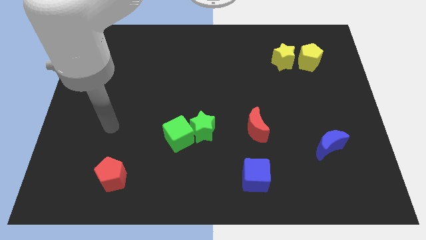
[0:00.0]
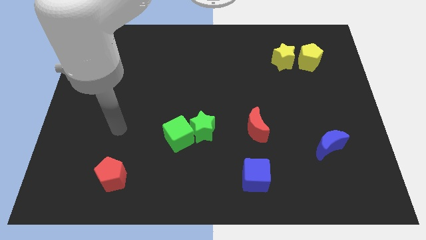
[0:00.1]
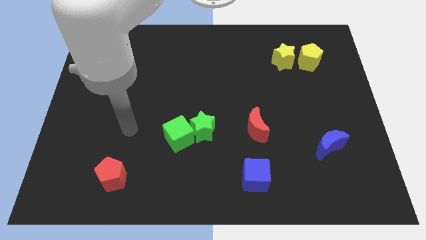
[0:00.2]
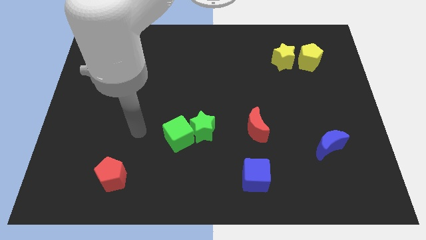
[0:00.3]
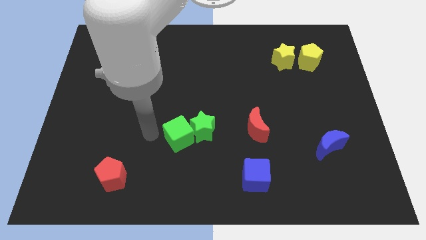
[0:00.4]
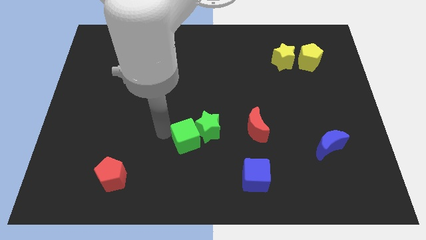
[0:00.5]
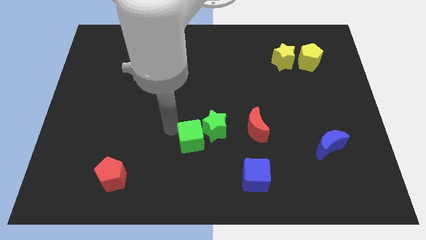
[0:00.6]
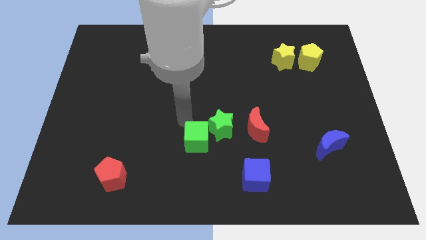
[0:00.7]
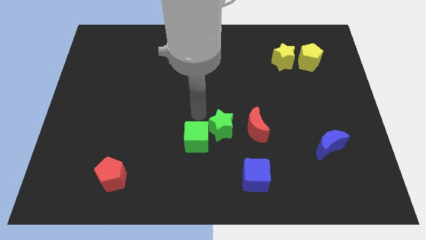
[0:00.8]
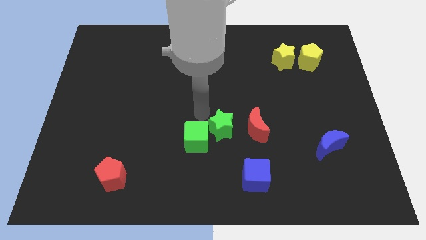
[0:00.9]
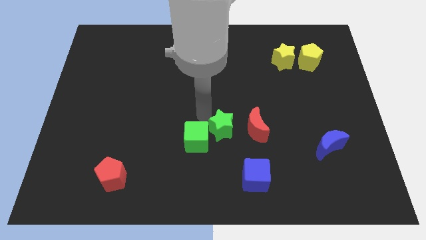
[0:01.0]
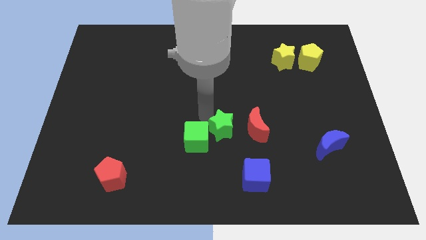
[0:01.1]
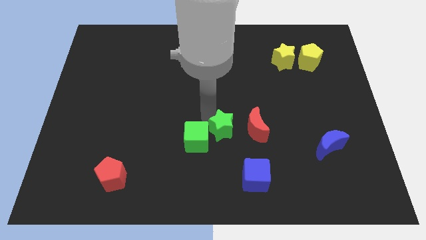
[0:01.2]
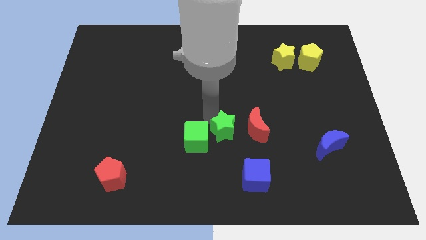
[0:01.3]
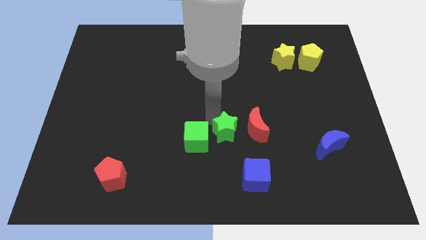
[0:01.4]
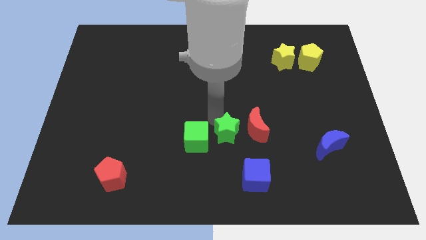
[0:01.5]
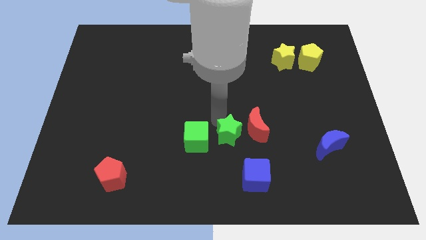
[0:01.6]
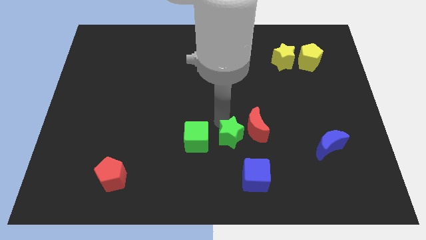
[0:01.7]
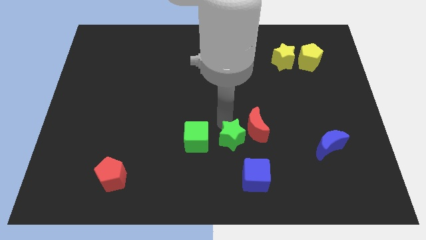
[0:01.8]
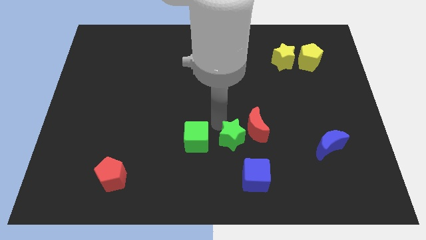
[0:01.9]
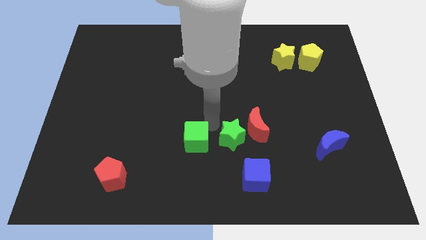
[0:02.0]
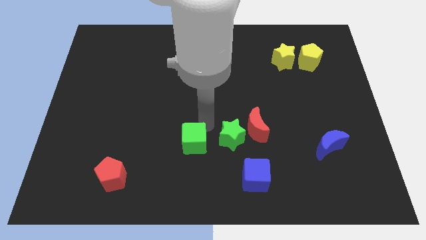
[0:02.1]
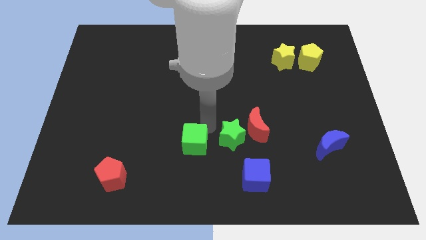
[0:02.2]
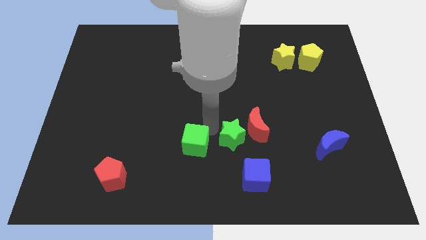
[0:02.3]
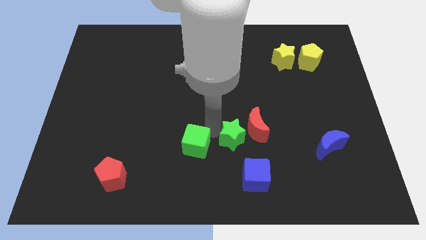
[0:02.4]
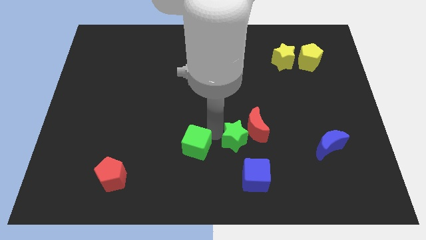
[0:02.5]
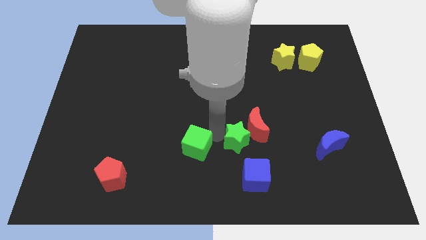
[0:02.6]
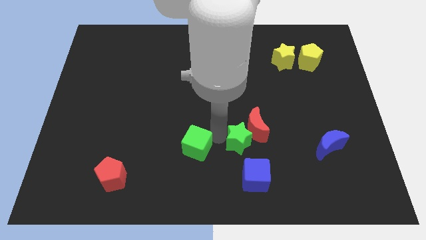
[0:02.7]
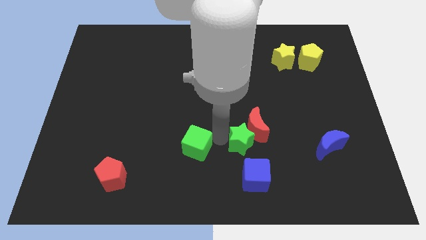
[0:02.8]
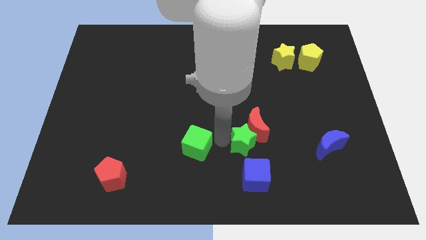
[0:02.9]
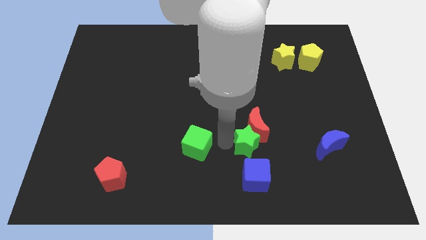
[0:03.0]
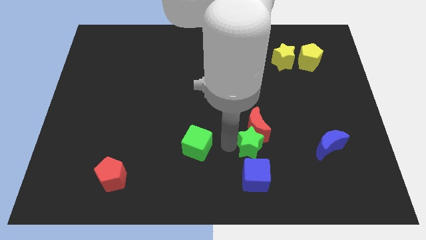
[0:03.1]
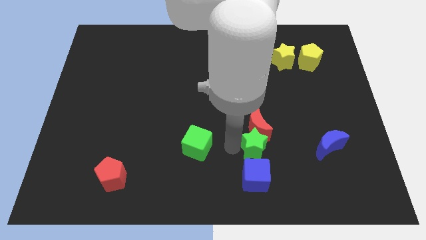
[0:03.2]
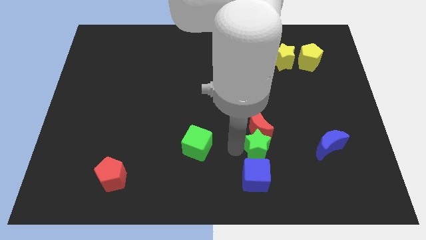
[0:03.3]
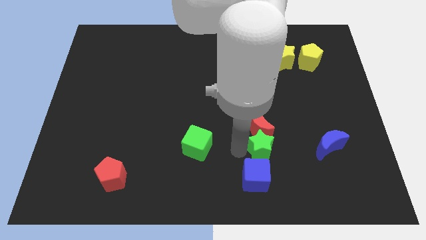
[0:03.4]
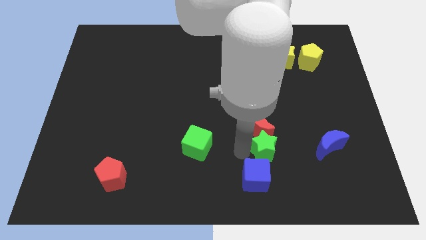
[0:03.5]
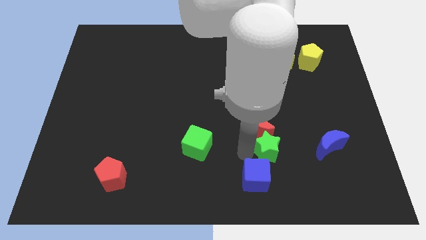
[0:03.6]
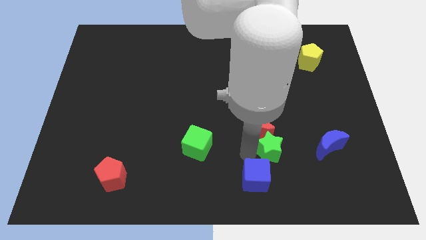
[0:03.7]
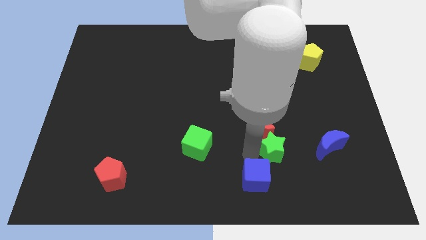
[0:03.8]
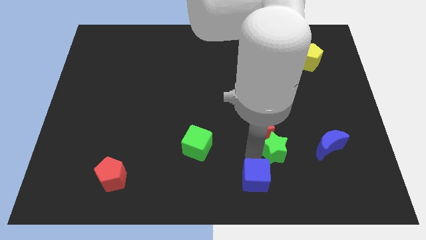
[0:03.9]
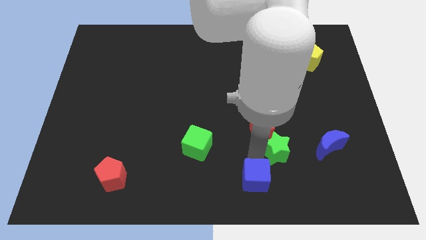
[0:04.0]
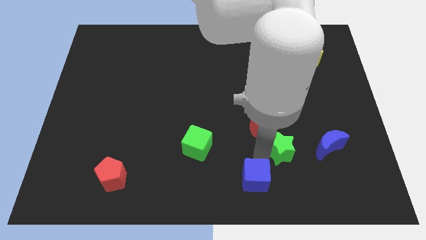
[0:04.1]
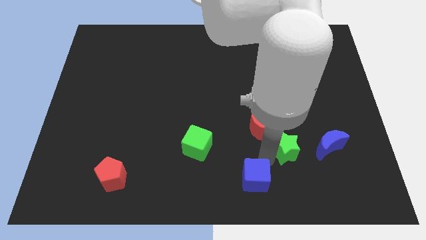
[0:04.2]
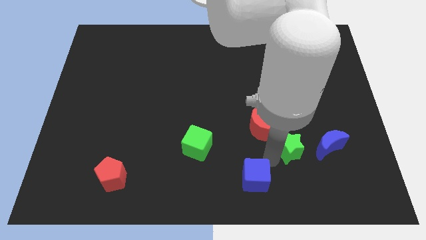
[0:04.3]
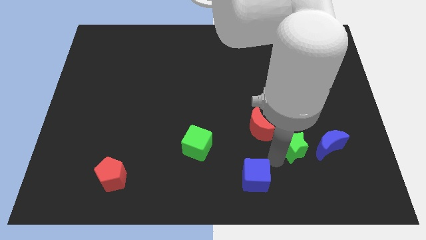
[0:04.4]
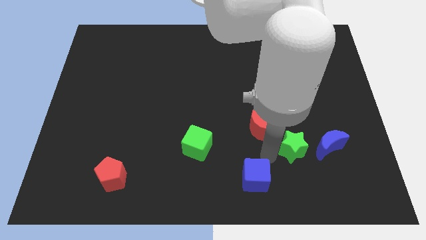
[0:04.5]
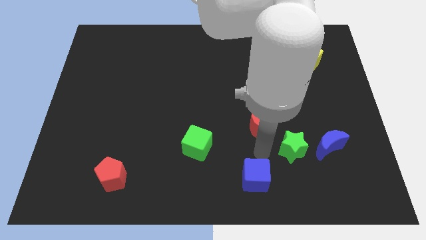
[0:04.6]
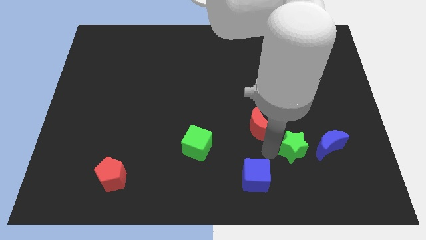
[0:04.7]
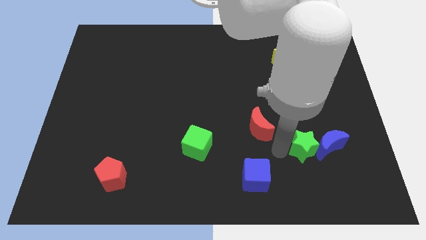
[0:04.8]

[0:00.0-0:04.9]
push the green star close to the blue moon

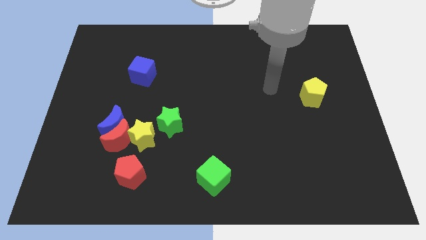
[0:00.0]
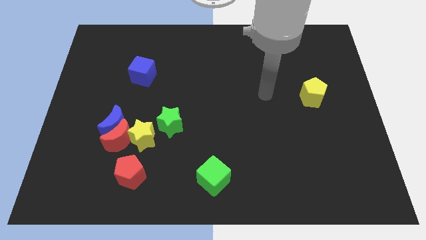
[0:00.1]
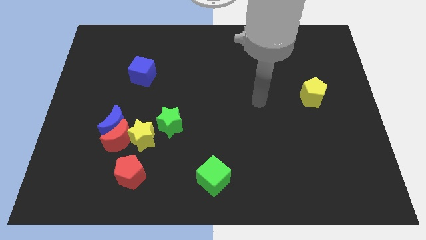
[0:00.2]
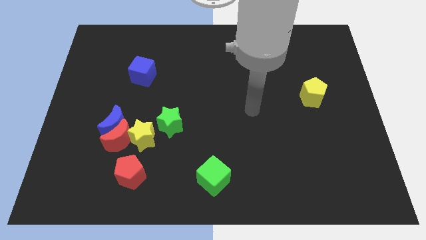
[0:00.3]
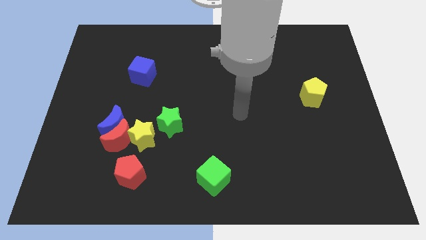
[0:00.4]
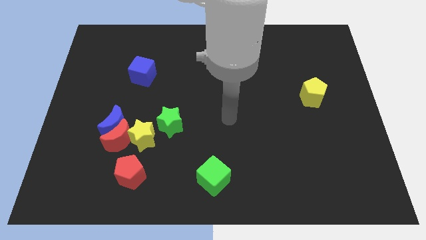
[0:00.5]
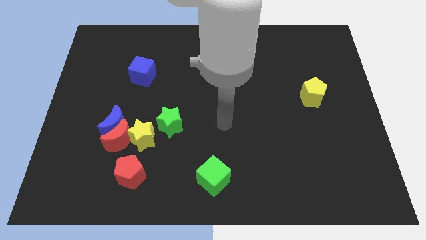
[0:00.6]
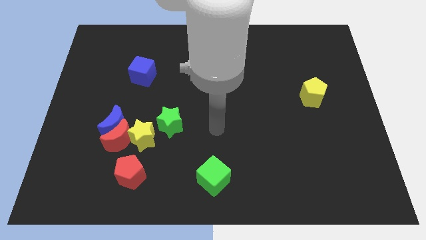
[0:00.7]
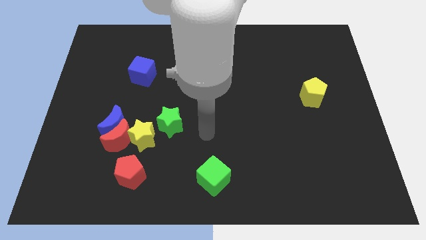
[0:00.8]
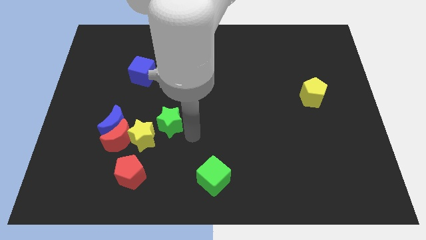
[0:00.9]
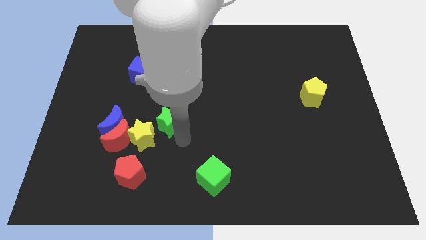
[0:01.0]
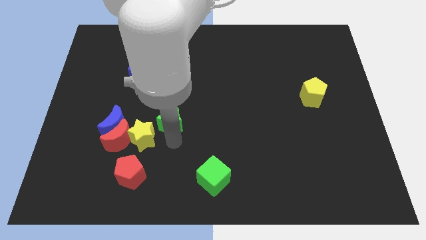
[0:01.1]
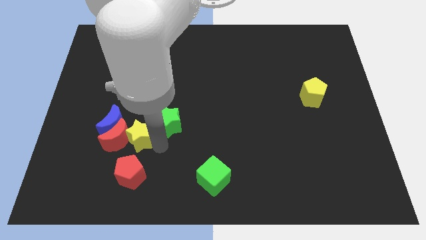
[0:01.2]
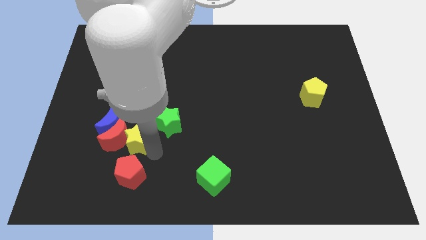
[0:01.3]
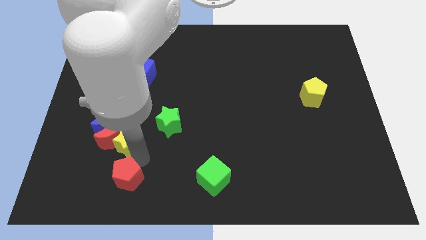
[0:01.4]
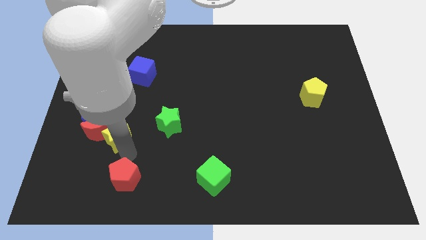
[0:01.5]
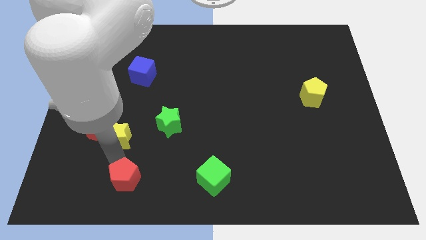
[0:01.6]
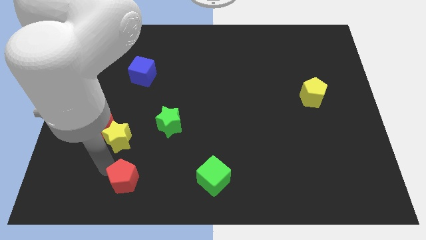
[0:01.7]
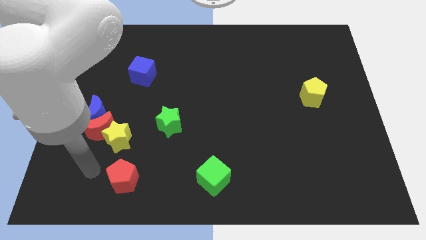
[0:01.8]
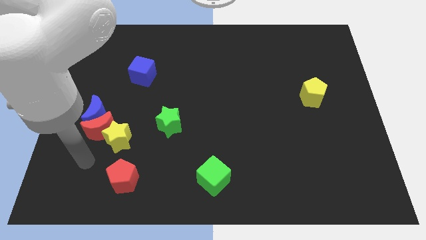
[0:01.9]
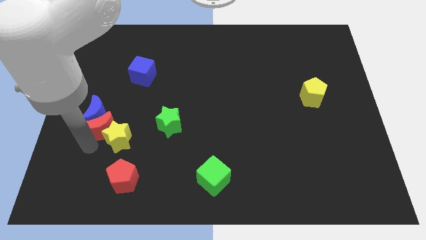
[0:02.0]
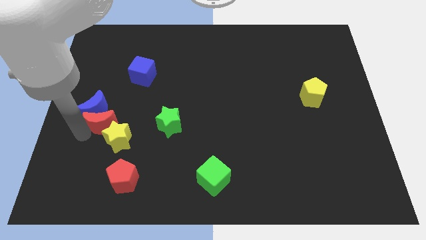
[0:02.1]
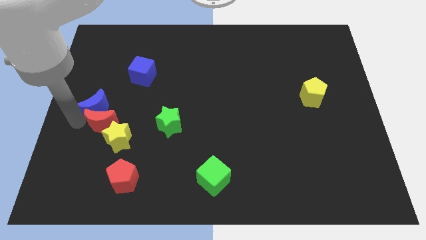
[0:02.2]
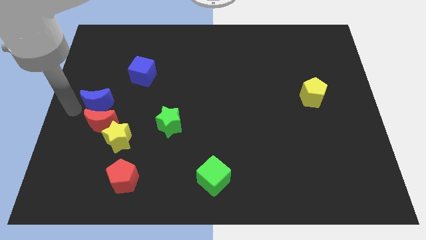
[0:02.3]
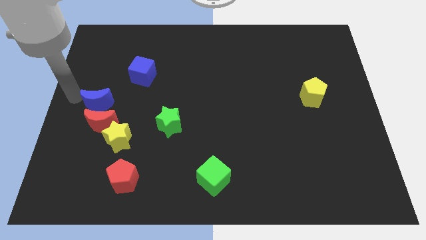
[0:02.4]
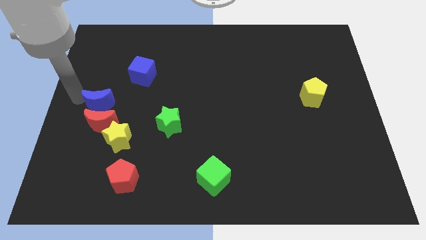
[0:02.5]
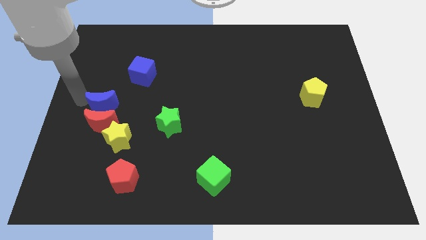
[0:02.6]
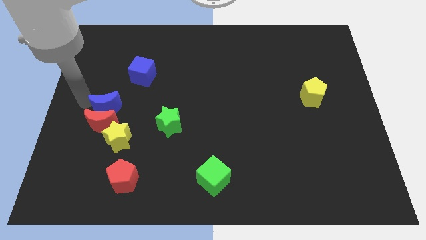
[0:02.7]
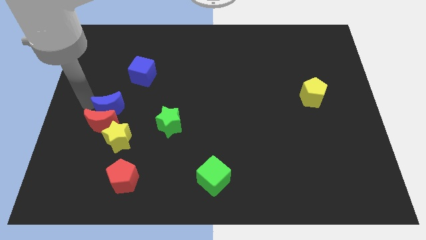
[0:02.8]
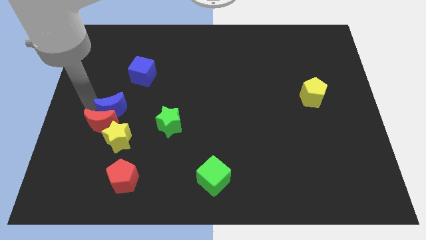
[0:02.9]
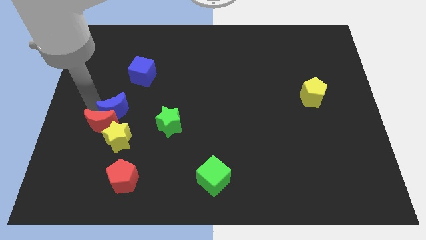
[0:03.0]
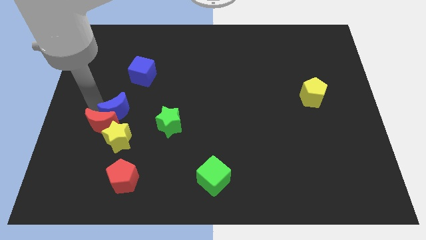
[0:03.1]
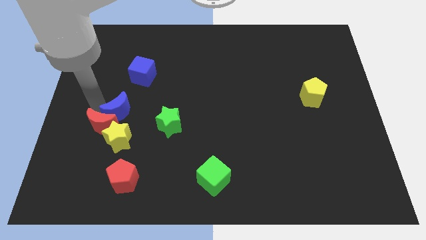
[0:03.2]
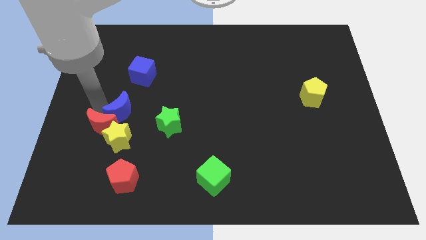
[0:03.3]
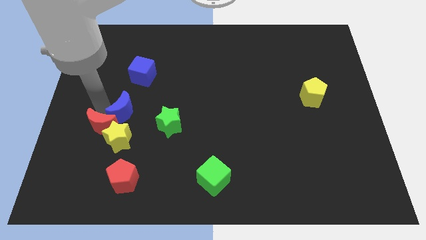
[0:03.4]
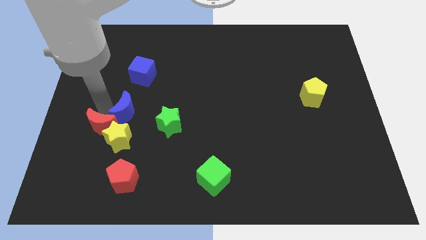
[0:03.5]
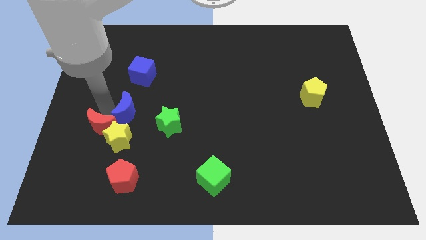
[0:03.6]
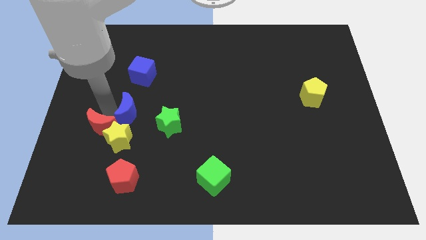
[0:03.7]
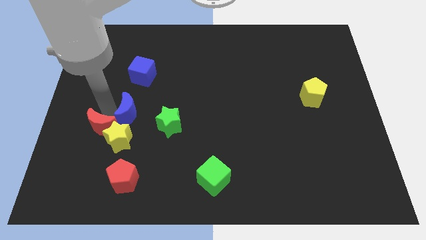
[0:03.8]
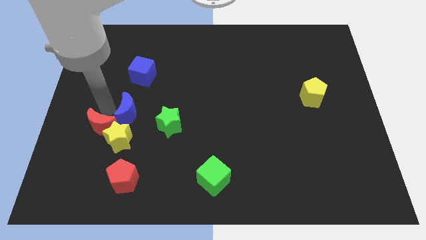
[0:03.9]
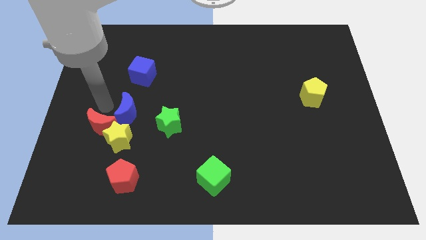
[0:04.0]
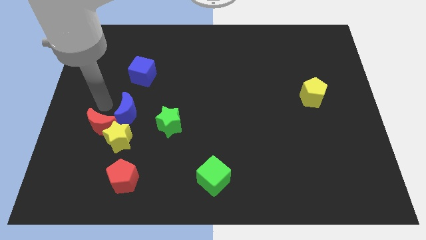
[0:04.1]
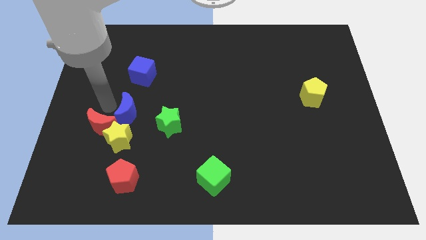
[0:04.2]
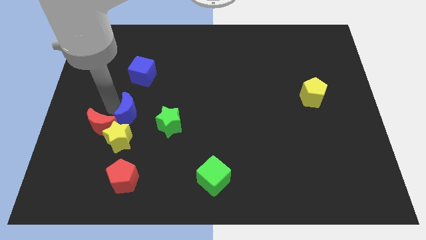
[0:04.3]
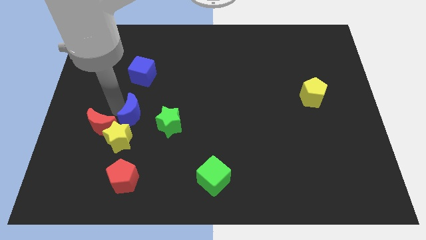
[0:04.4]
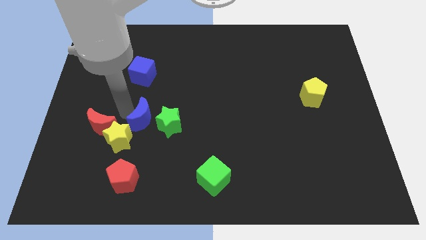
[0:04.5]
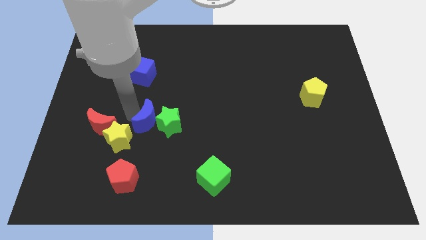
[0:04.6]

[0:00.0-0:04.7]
push the blue moon close to the green star
